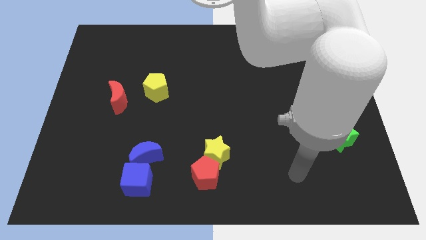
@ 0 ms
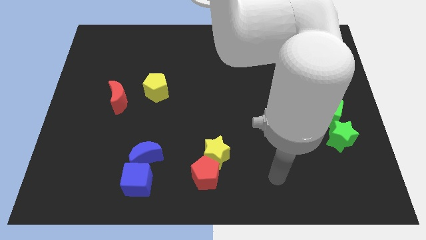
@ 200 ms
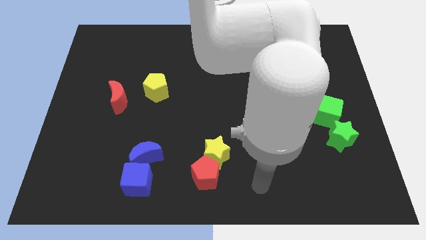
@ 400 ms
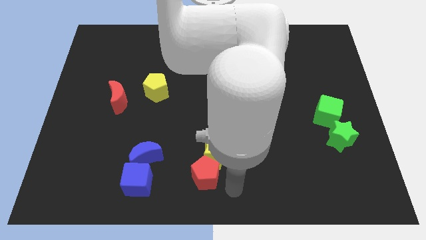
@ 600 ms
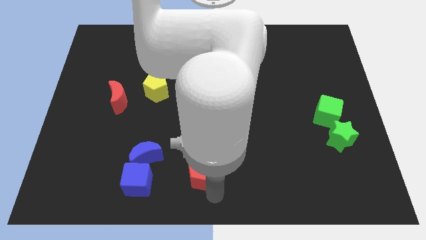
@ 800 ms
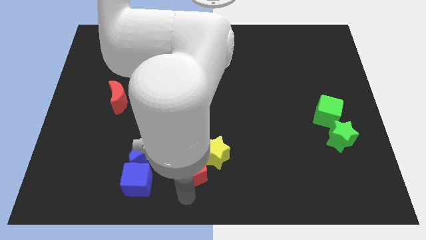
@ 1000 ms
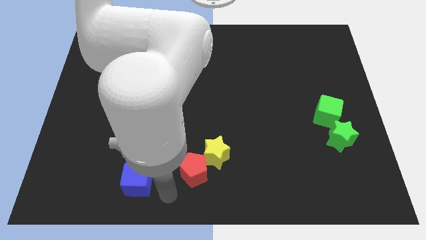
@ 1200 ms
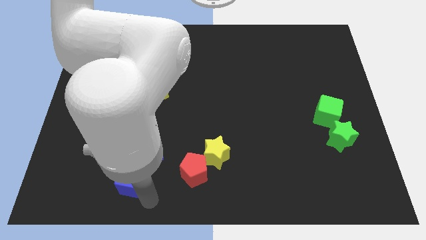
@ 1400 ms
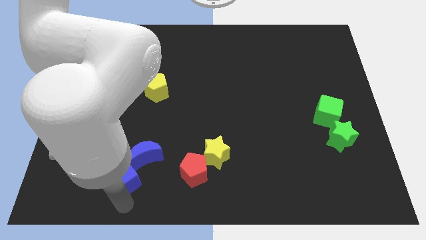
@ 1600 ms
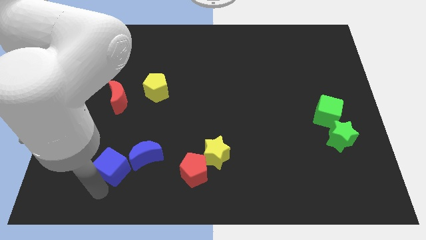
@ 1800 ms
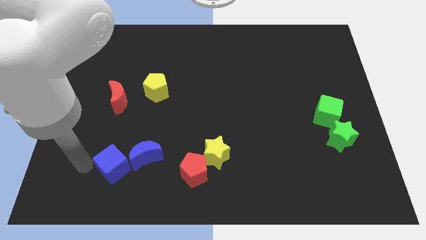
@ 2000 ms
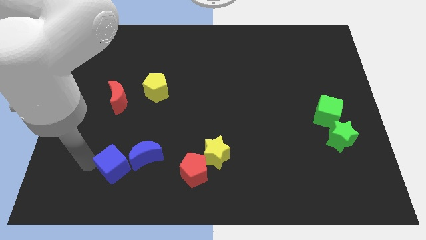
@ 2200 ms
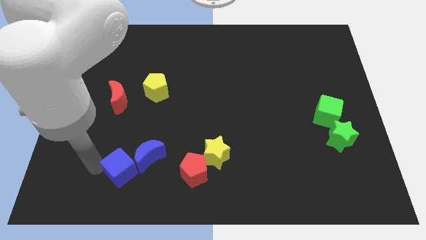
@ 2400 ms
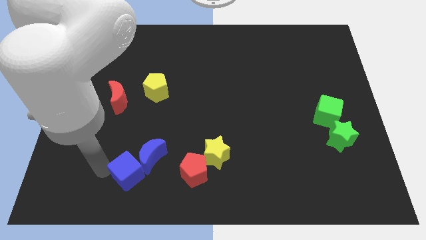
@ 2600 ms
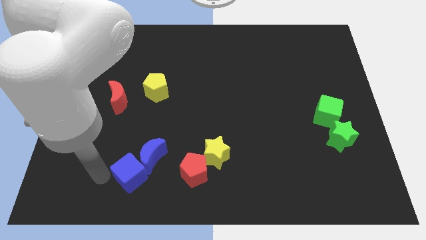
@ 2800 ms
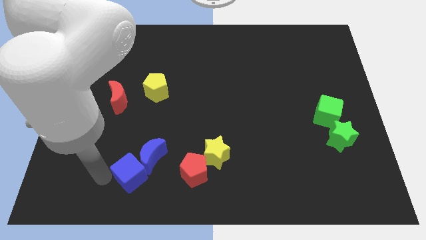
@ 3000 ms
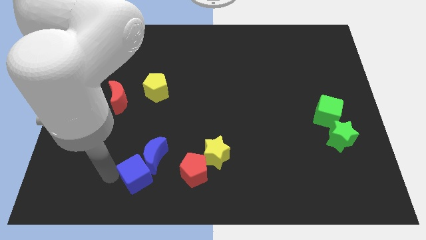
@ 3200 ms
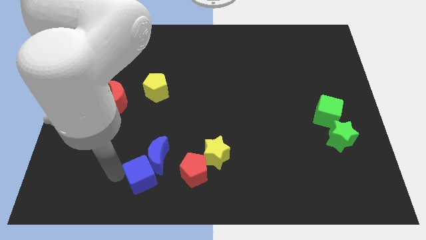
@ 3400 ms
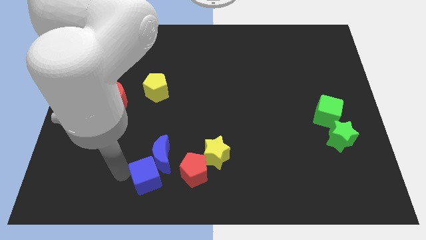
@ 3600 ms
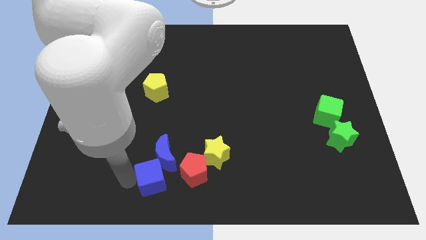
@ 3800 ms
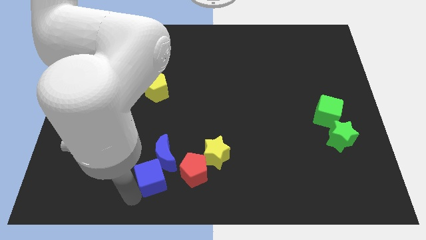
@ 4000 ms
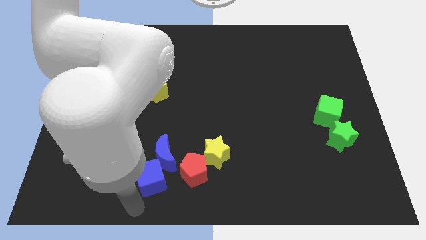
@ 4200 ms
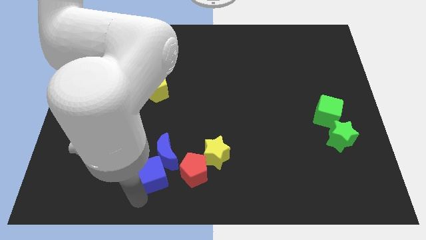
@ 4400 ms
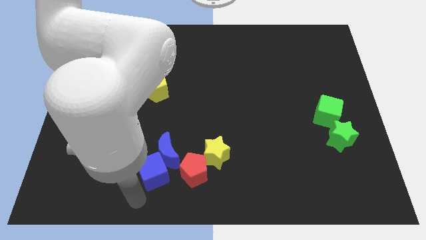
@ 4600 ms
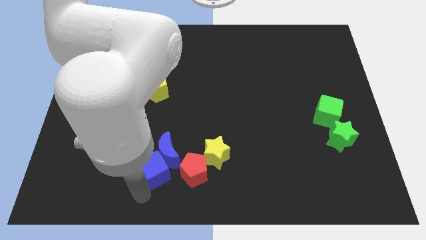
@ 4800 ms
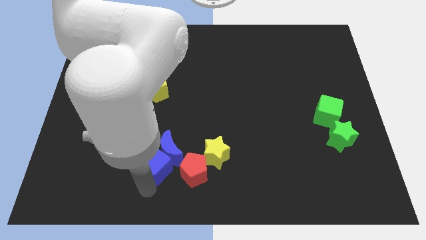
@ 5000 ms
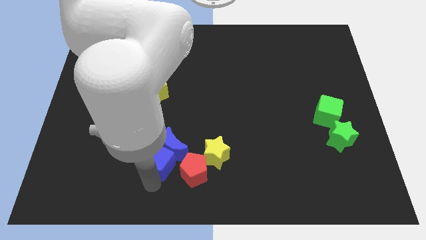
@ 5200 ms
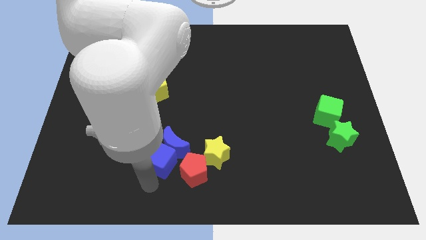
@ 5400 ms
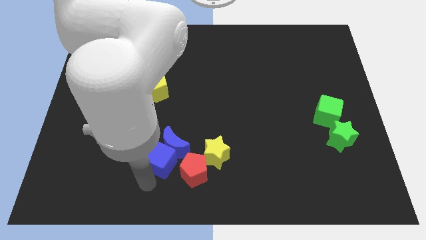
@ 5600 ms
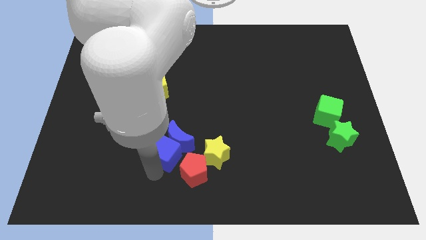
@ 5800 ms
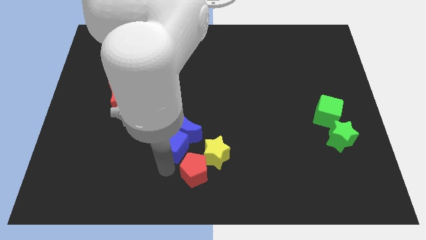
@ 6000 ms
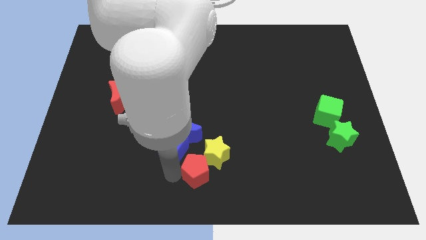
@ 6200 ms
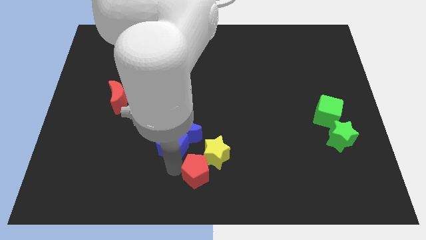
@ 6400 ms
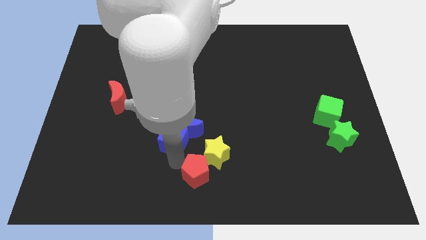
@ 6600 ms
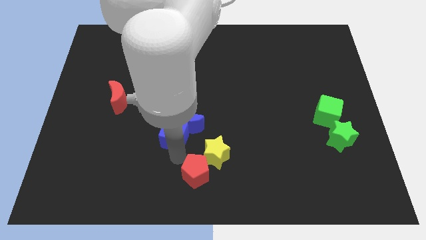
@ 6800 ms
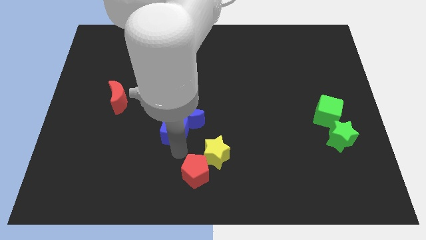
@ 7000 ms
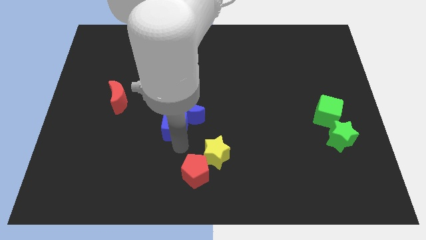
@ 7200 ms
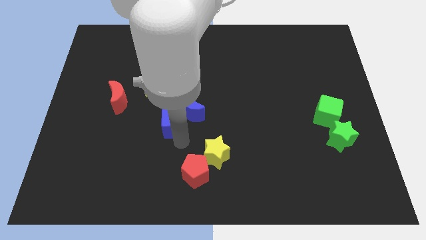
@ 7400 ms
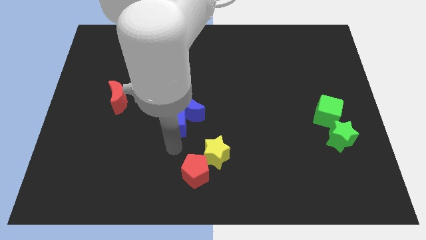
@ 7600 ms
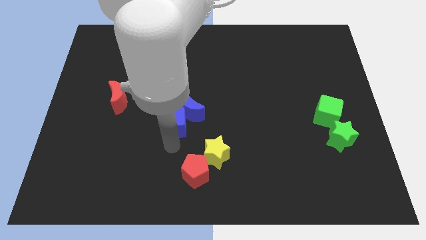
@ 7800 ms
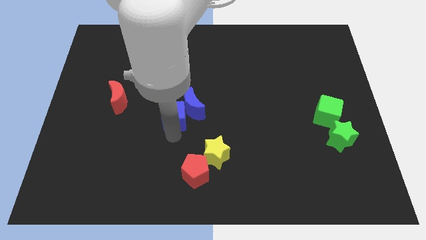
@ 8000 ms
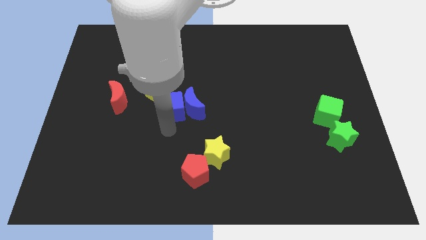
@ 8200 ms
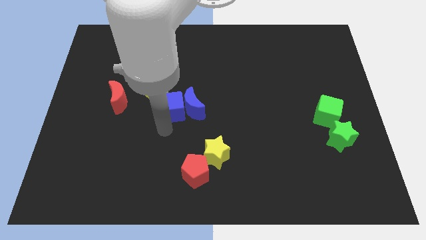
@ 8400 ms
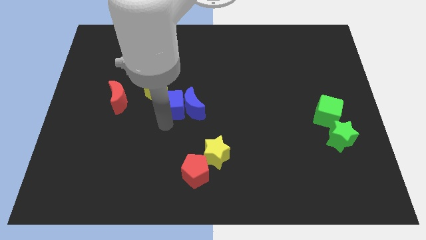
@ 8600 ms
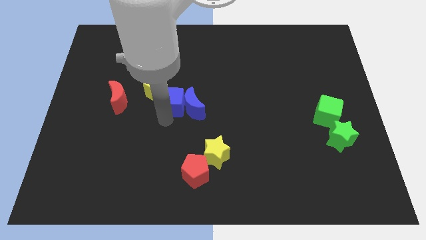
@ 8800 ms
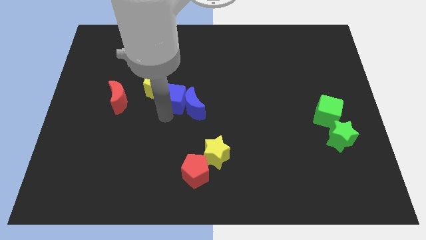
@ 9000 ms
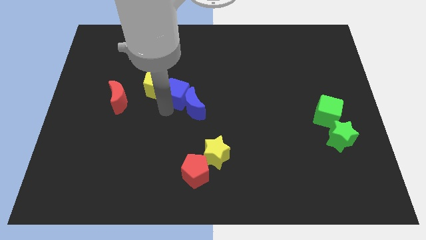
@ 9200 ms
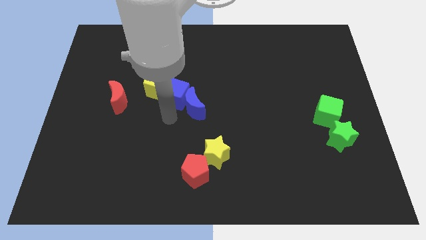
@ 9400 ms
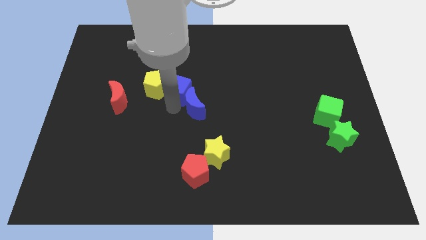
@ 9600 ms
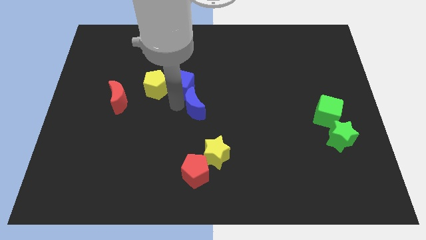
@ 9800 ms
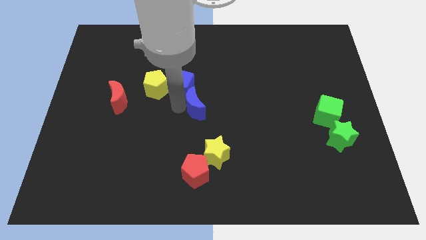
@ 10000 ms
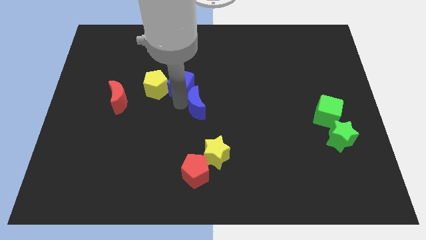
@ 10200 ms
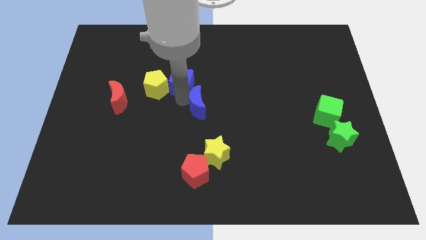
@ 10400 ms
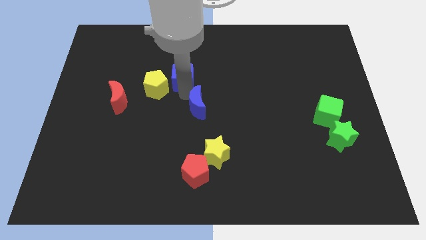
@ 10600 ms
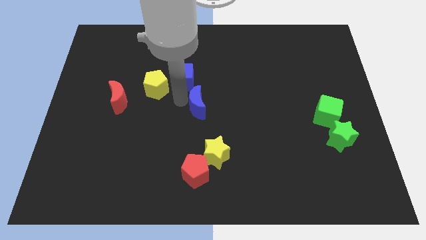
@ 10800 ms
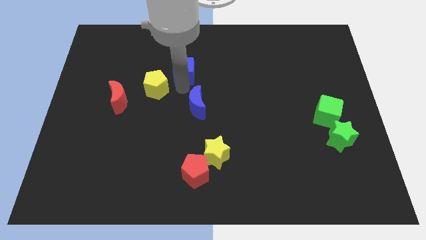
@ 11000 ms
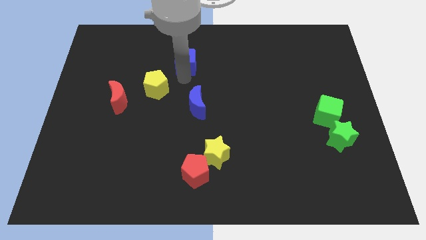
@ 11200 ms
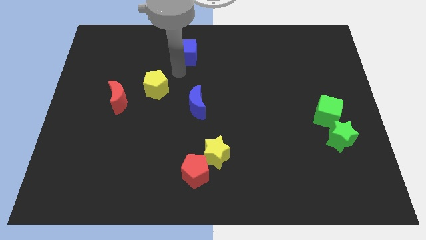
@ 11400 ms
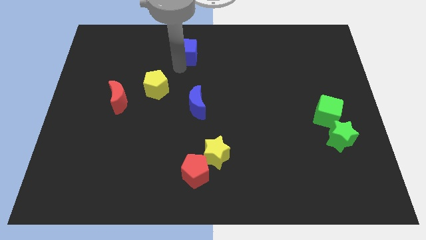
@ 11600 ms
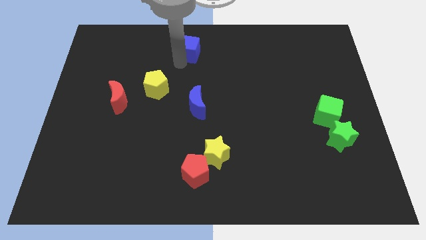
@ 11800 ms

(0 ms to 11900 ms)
put the blue cube to the towards your base
